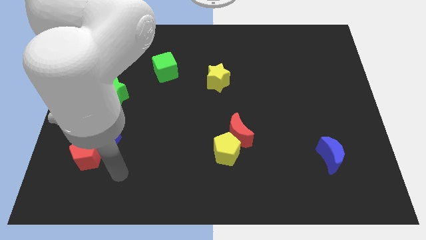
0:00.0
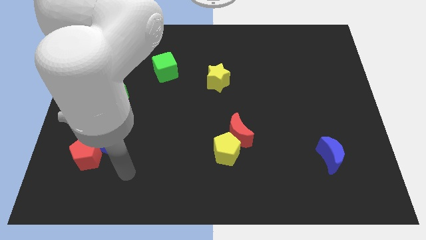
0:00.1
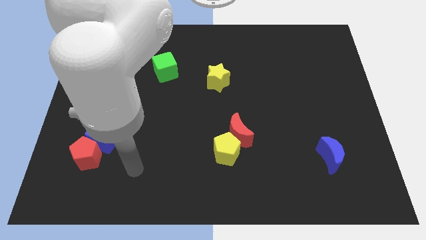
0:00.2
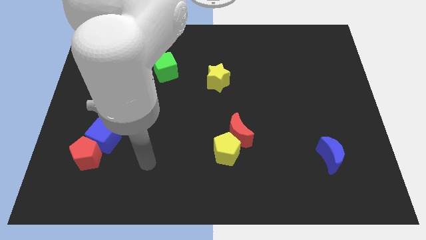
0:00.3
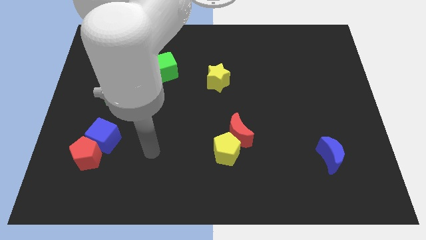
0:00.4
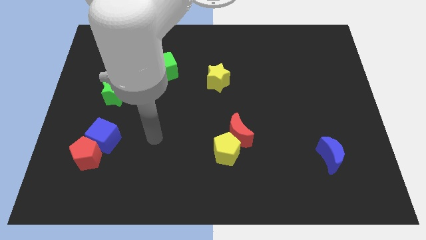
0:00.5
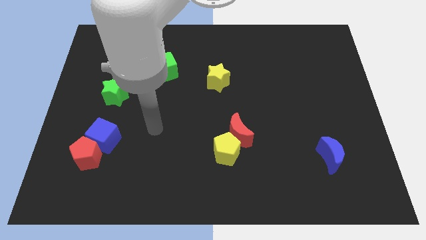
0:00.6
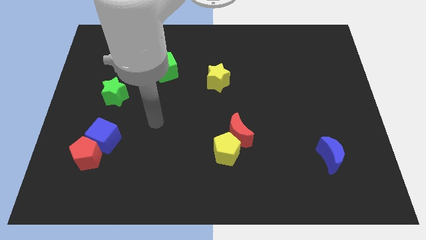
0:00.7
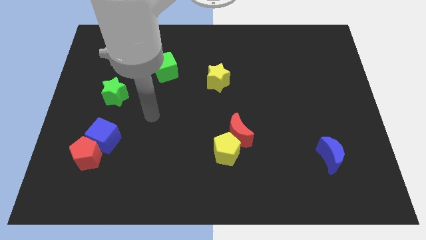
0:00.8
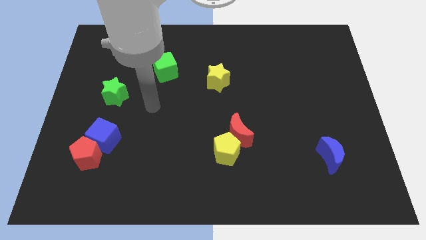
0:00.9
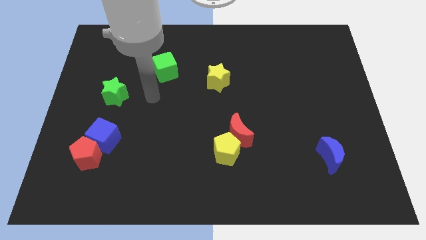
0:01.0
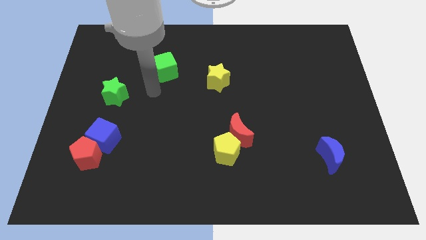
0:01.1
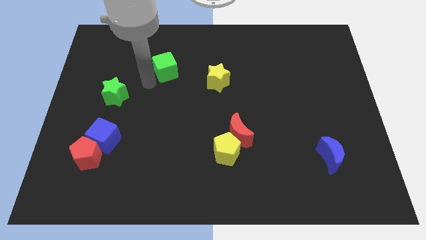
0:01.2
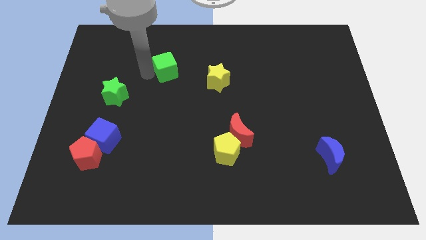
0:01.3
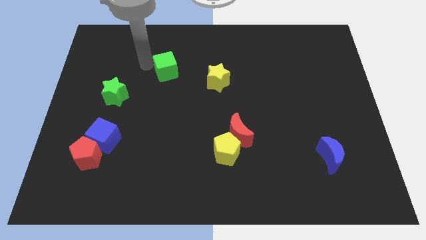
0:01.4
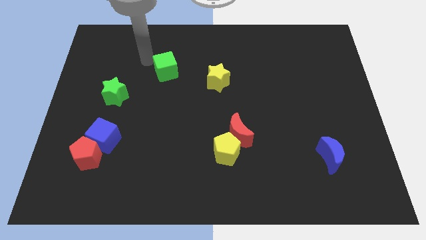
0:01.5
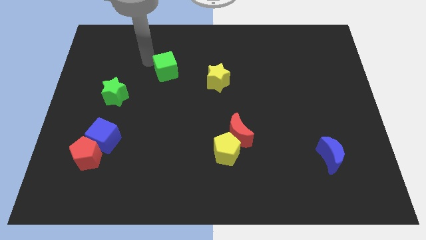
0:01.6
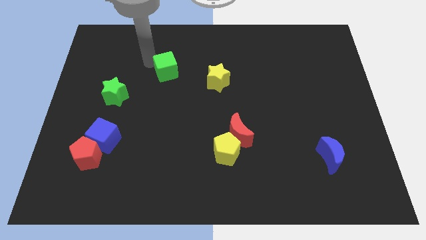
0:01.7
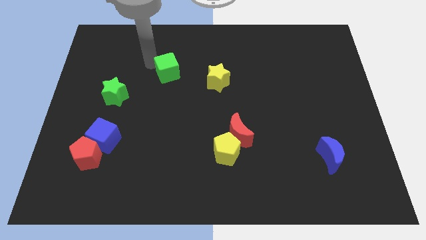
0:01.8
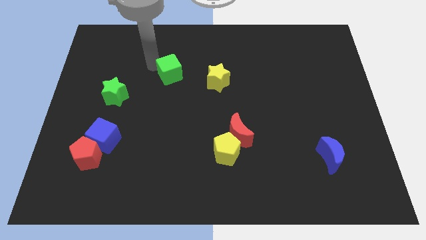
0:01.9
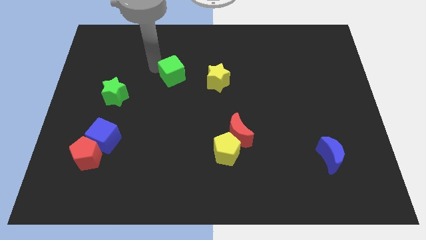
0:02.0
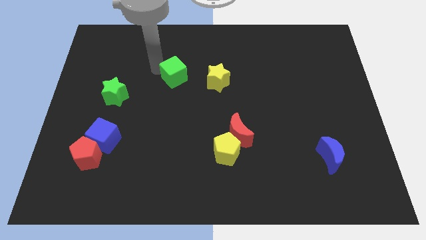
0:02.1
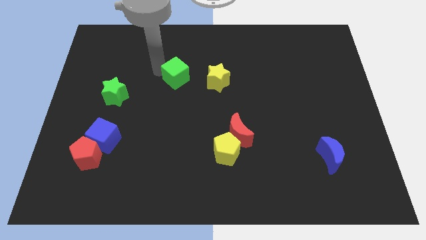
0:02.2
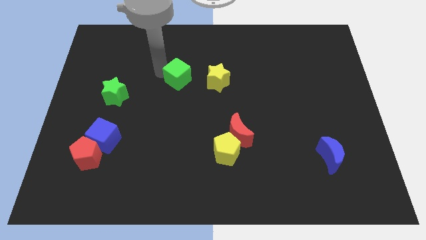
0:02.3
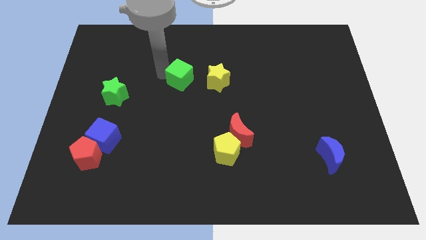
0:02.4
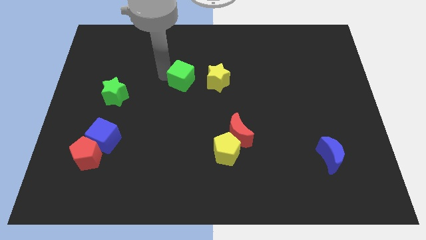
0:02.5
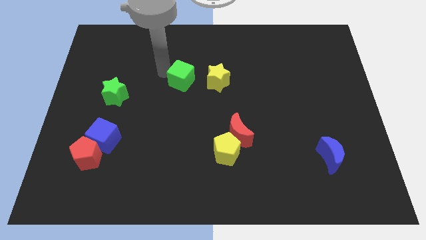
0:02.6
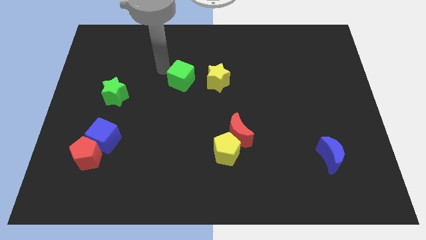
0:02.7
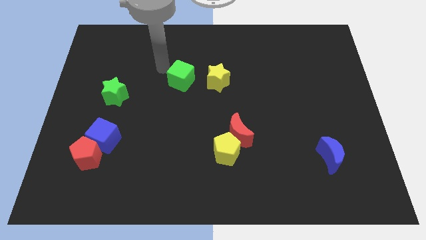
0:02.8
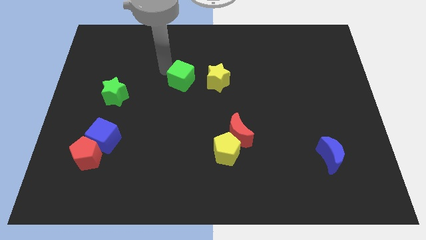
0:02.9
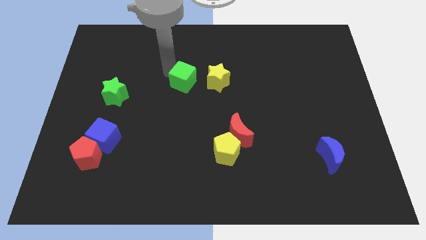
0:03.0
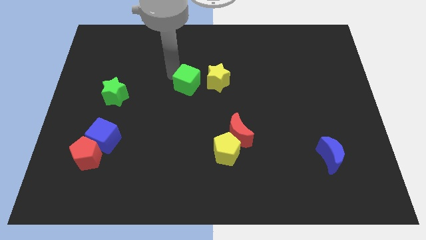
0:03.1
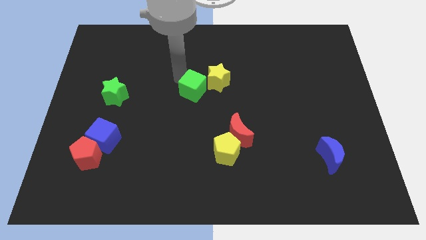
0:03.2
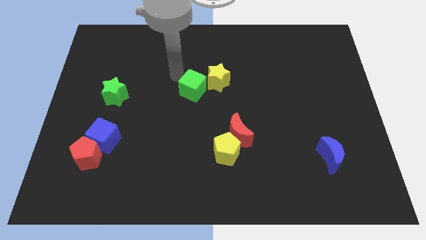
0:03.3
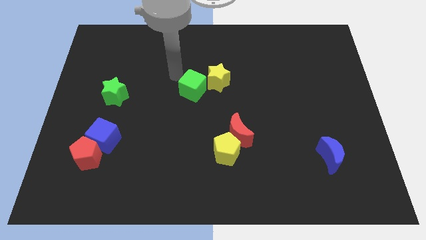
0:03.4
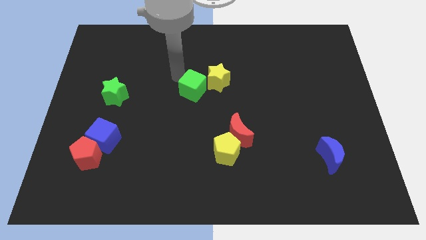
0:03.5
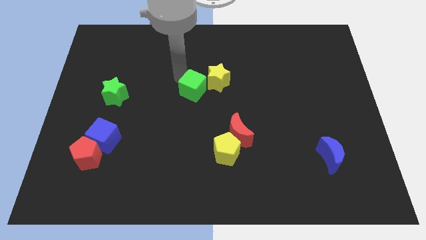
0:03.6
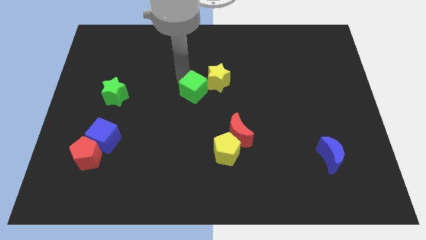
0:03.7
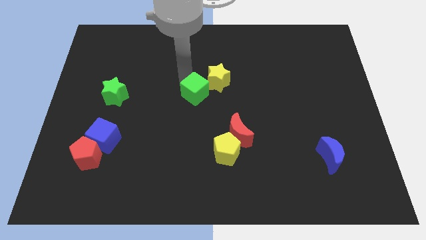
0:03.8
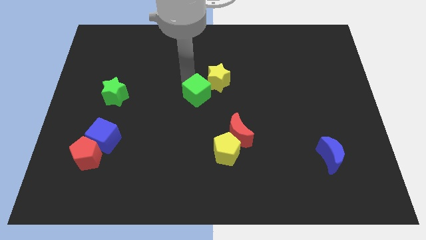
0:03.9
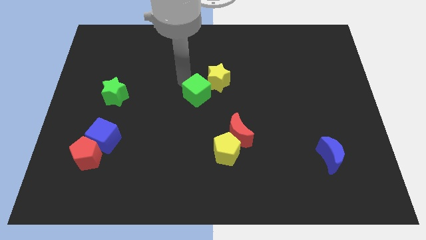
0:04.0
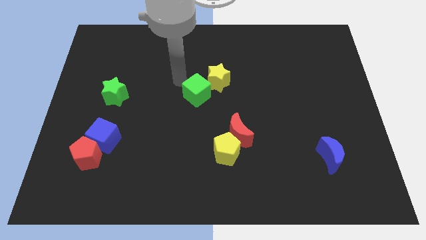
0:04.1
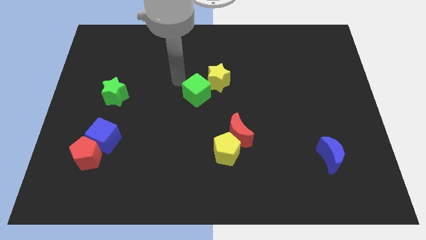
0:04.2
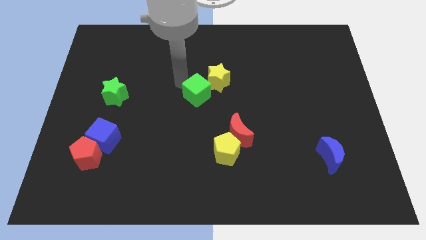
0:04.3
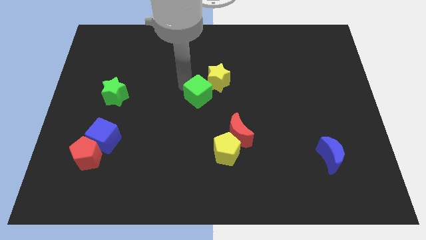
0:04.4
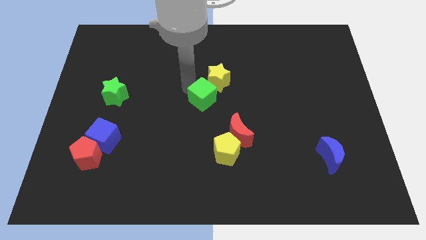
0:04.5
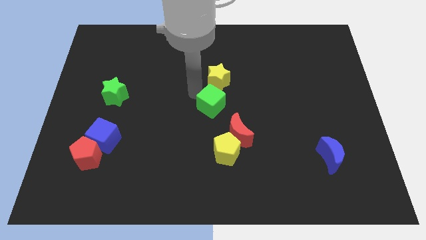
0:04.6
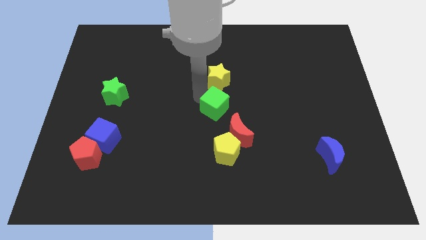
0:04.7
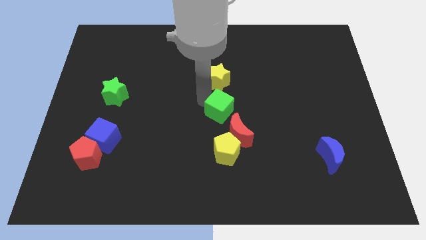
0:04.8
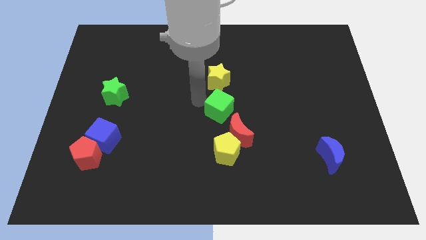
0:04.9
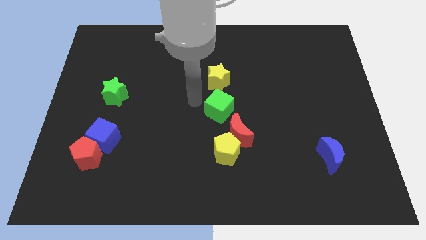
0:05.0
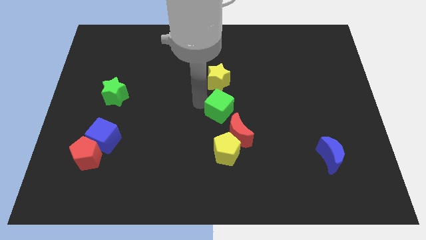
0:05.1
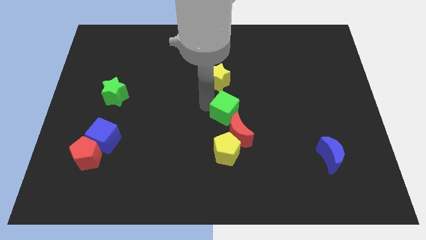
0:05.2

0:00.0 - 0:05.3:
move the green cube diagonally down and right

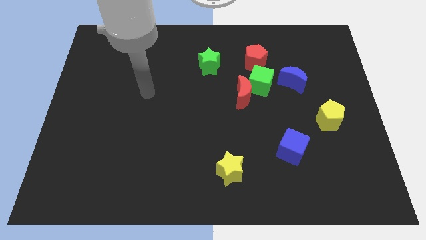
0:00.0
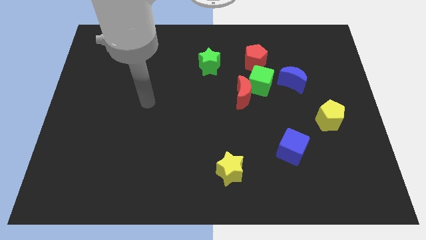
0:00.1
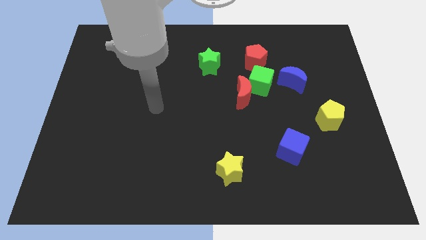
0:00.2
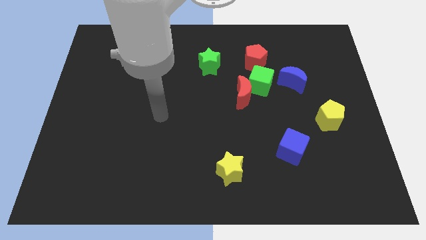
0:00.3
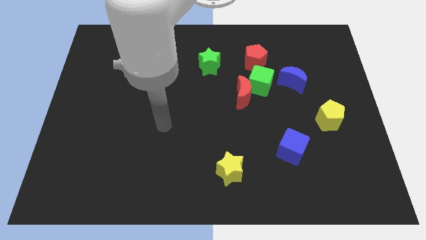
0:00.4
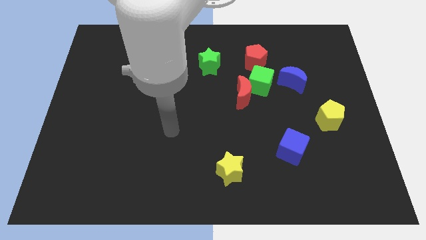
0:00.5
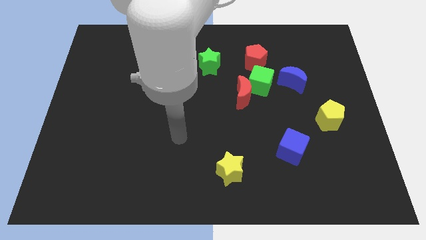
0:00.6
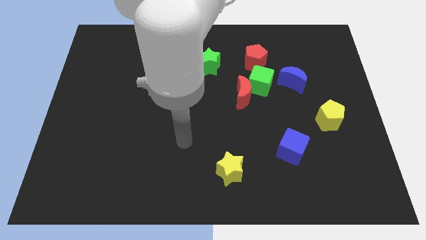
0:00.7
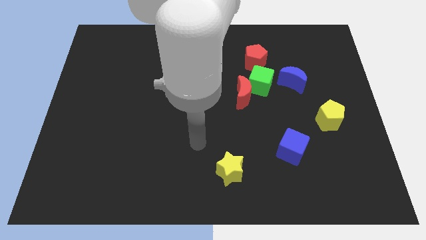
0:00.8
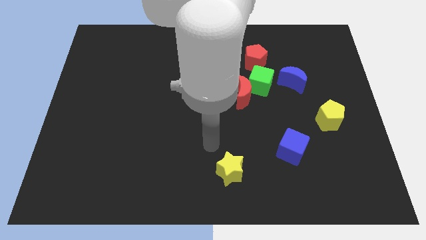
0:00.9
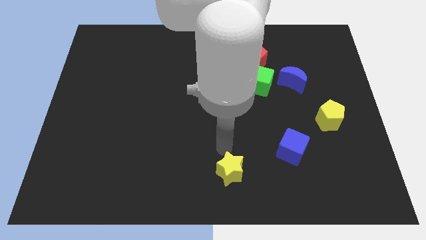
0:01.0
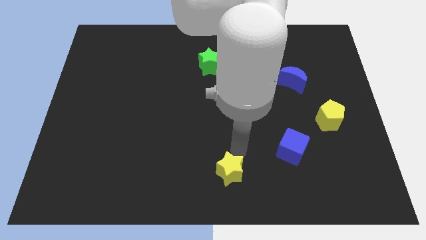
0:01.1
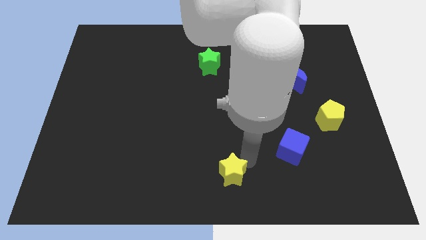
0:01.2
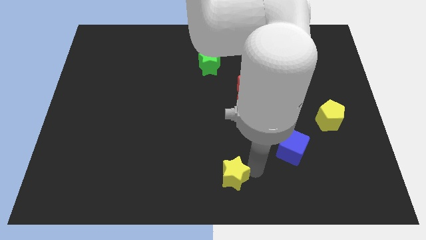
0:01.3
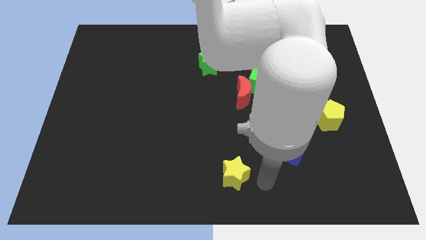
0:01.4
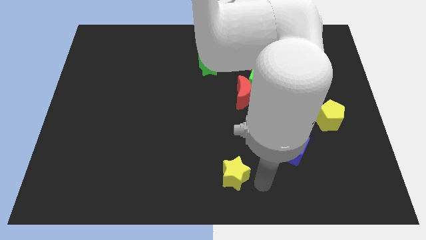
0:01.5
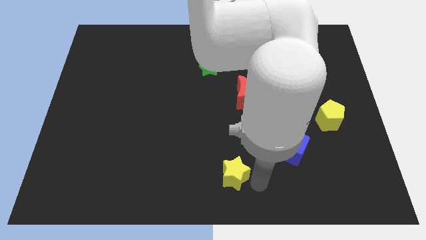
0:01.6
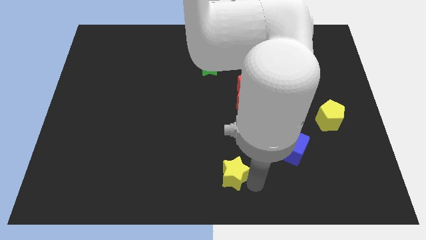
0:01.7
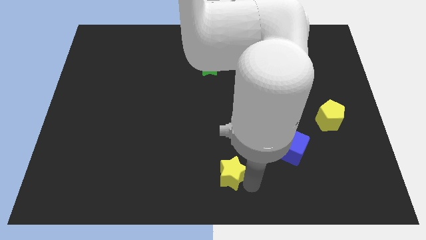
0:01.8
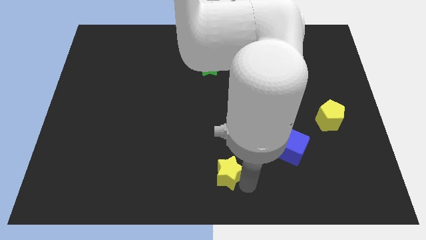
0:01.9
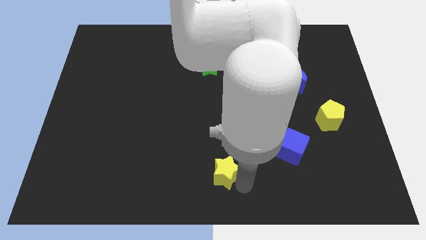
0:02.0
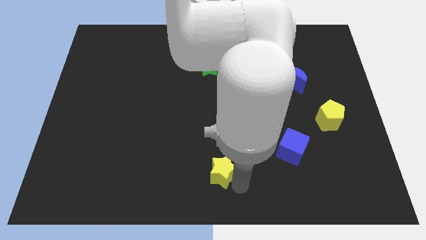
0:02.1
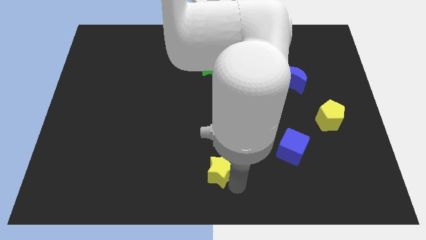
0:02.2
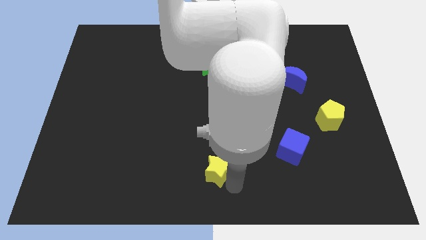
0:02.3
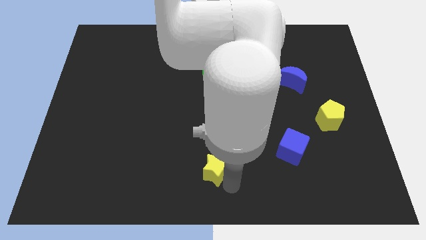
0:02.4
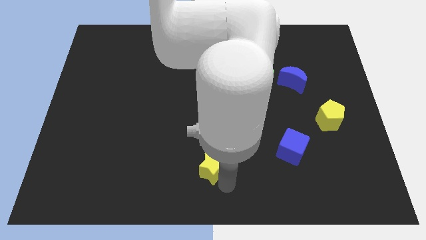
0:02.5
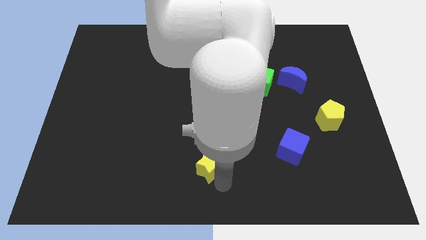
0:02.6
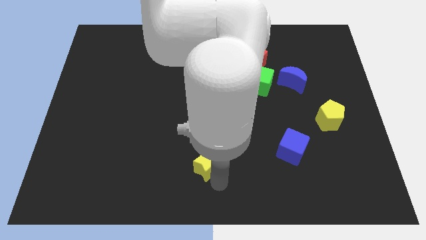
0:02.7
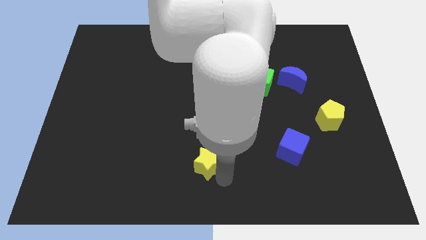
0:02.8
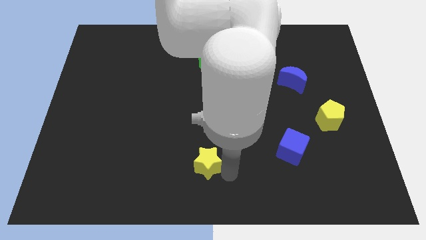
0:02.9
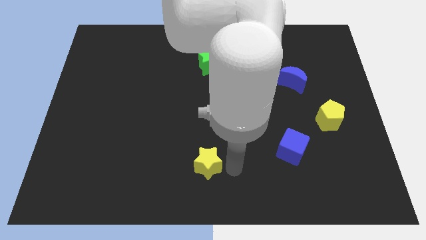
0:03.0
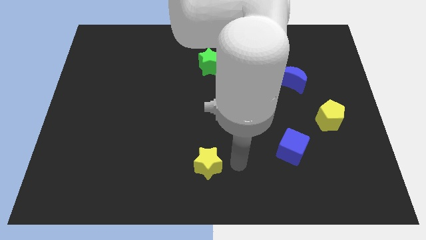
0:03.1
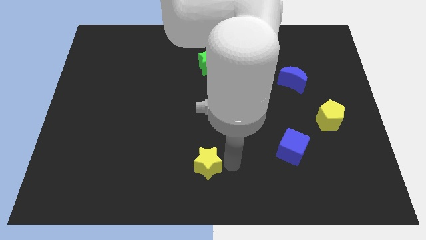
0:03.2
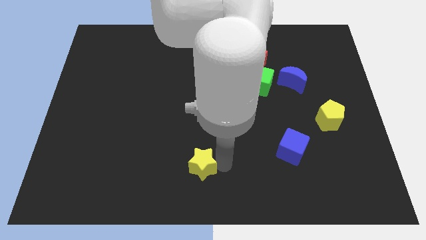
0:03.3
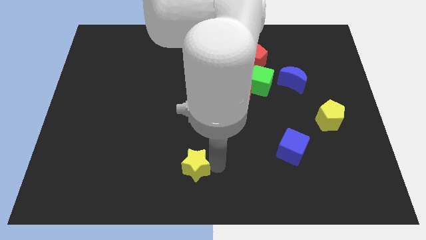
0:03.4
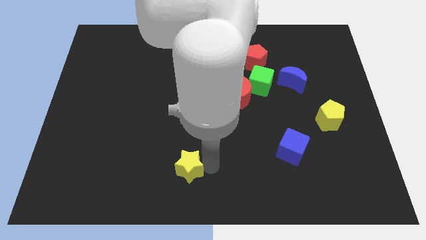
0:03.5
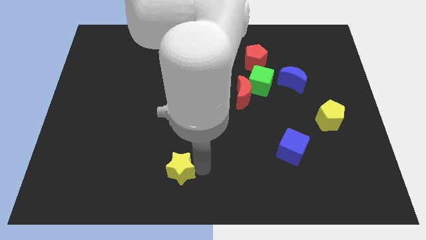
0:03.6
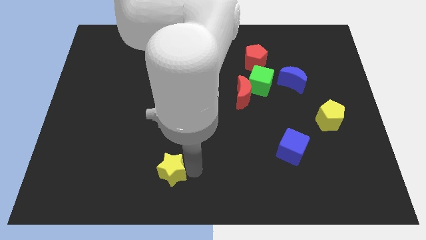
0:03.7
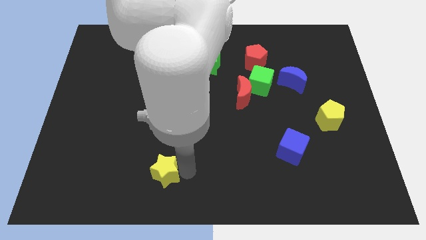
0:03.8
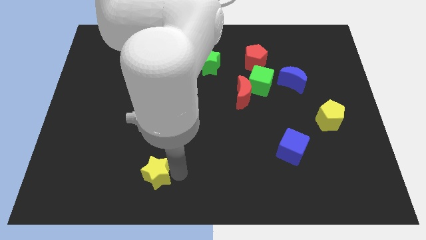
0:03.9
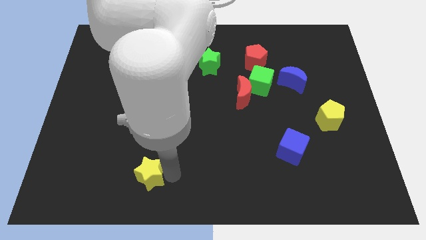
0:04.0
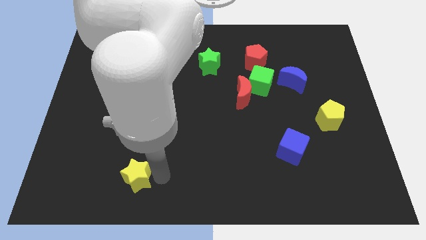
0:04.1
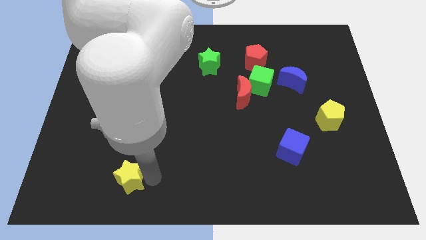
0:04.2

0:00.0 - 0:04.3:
move the yellow star to the left
